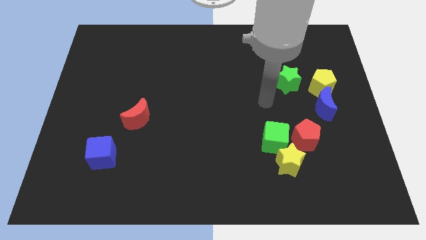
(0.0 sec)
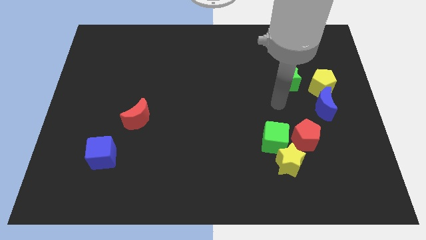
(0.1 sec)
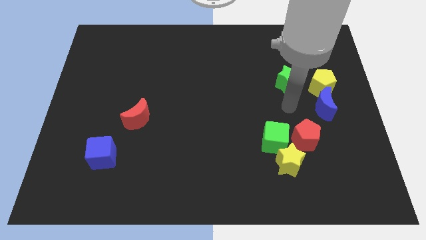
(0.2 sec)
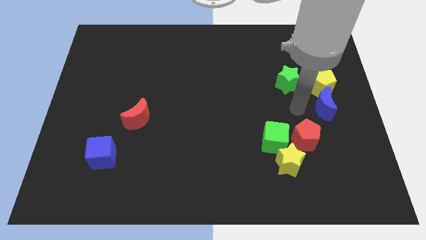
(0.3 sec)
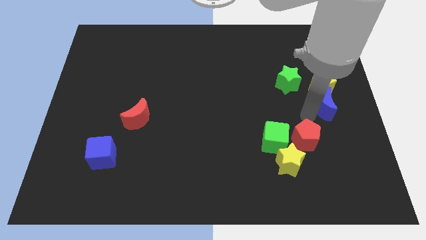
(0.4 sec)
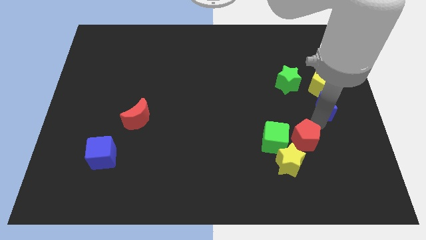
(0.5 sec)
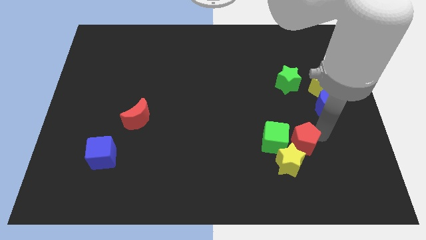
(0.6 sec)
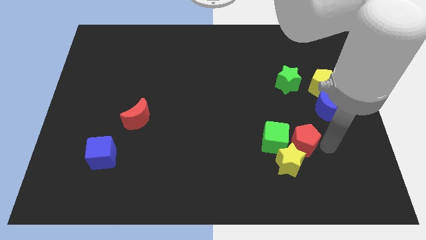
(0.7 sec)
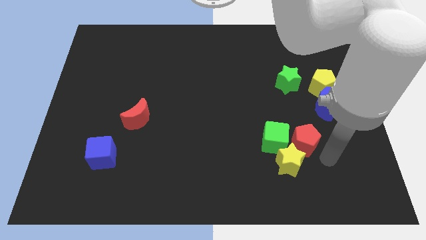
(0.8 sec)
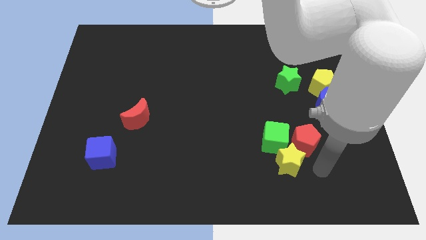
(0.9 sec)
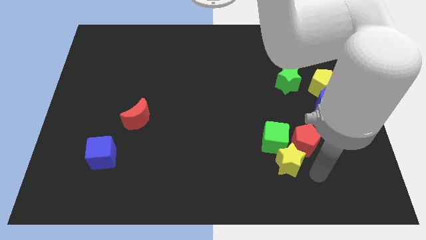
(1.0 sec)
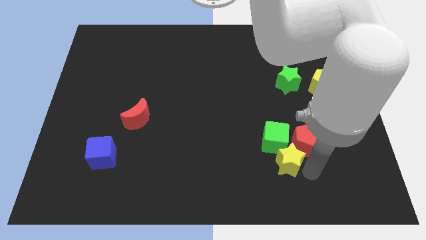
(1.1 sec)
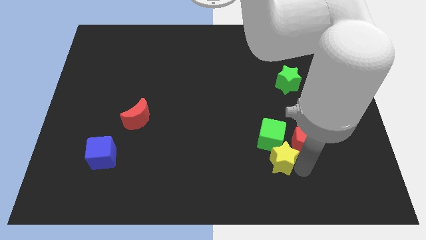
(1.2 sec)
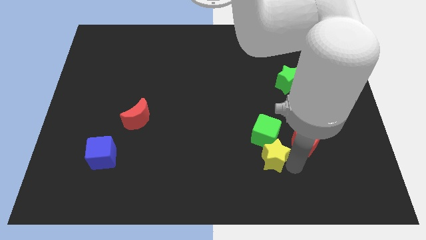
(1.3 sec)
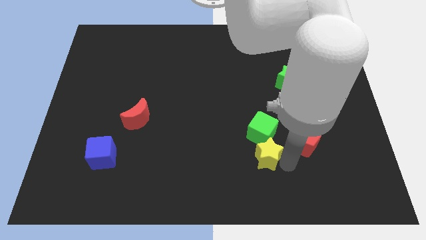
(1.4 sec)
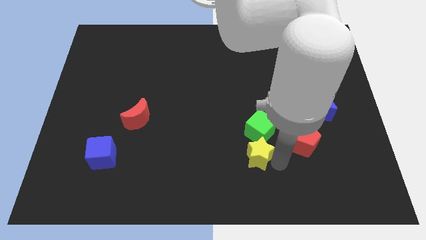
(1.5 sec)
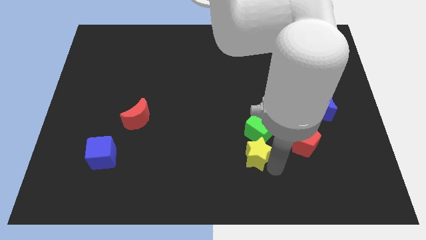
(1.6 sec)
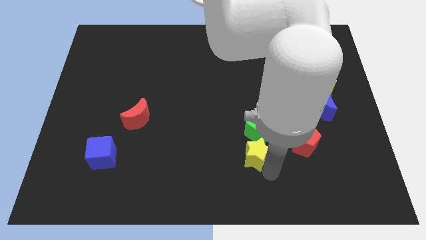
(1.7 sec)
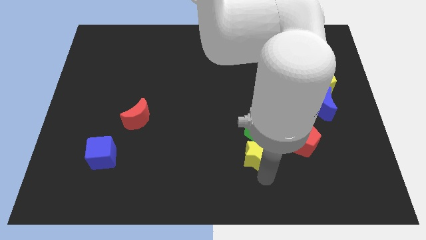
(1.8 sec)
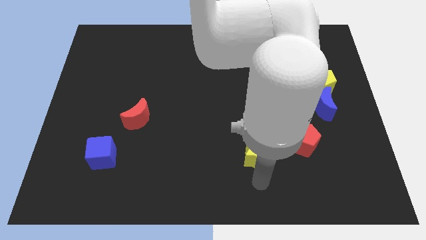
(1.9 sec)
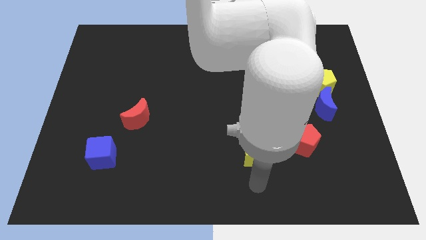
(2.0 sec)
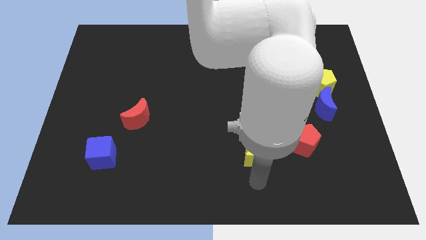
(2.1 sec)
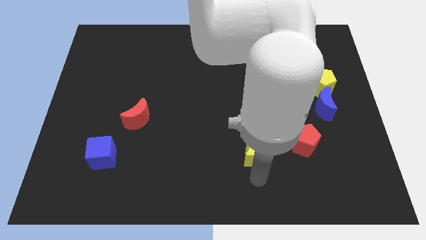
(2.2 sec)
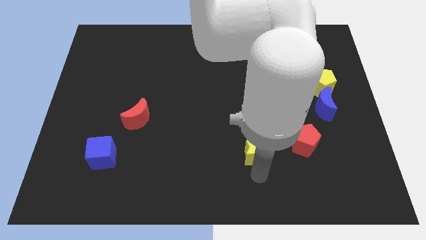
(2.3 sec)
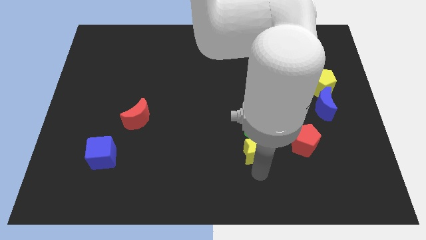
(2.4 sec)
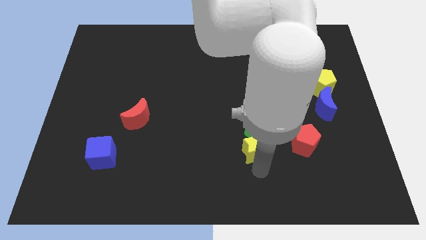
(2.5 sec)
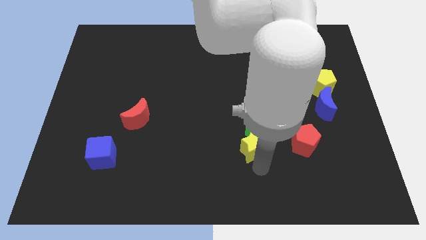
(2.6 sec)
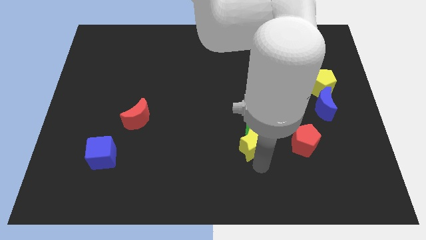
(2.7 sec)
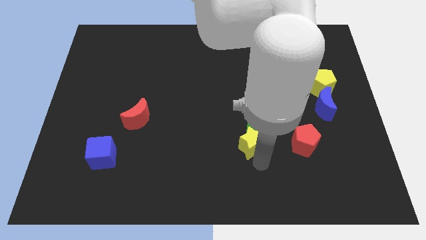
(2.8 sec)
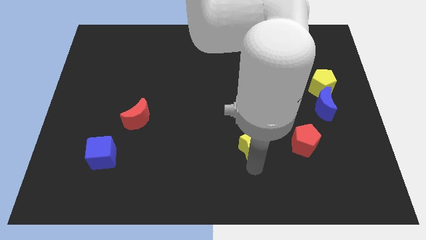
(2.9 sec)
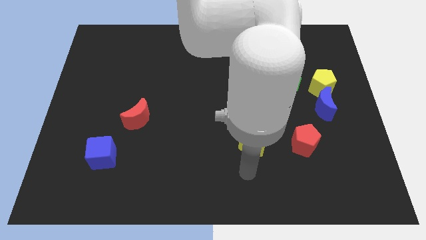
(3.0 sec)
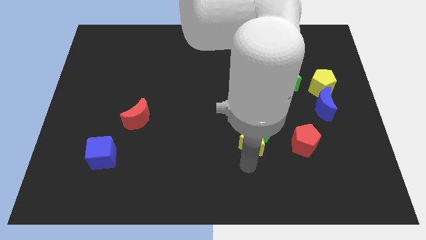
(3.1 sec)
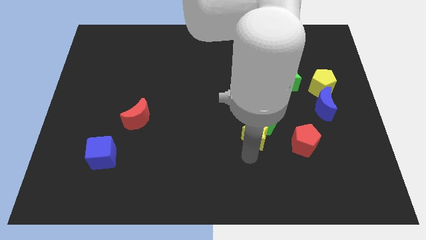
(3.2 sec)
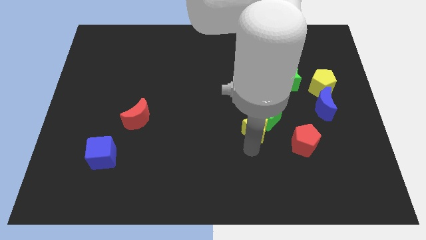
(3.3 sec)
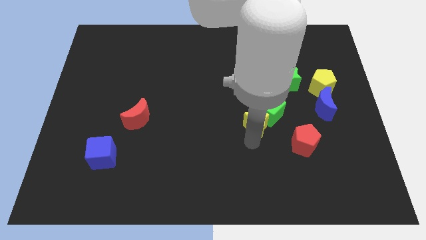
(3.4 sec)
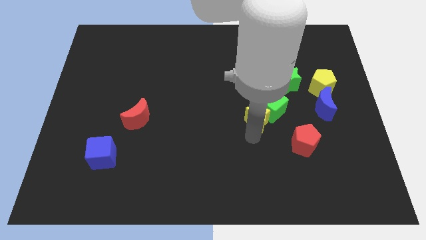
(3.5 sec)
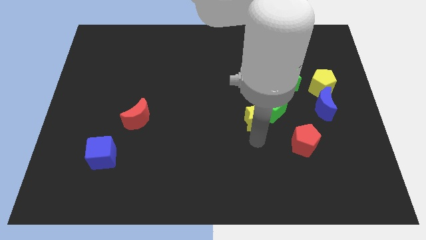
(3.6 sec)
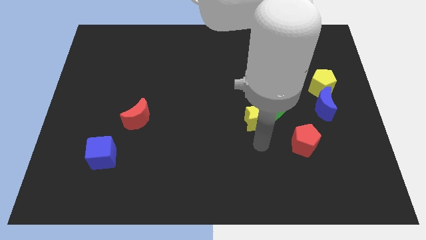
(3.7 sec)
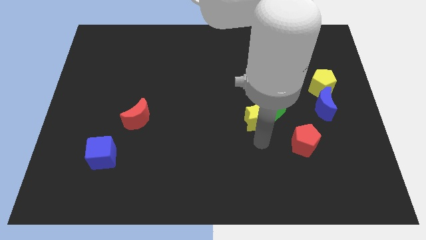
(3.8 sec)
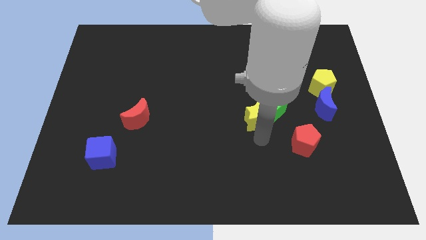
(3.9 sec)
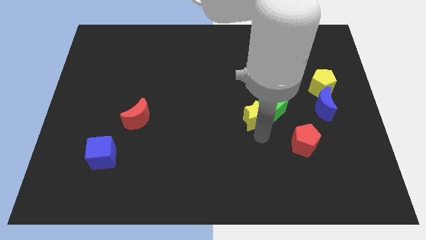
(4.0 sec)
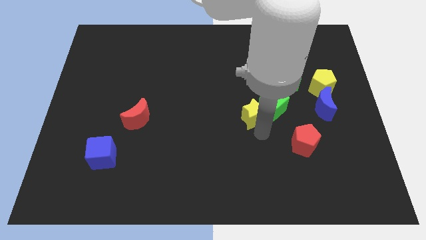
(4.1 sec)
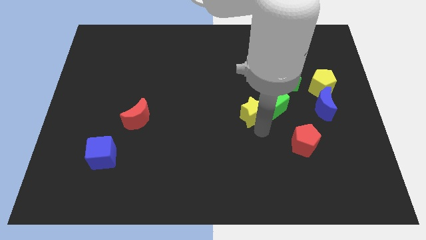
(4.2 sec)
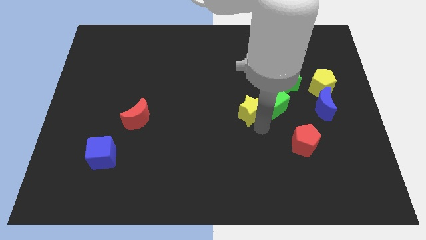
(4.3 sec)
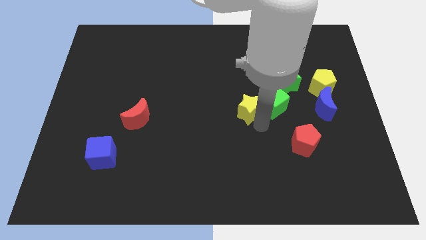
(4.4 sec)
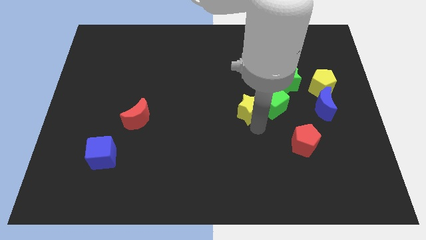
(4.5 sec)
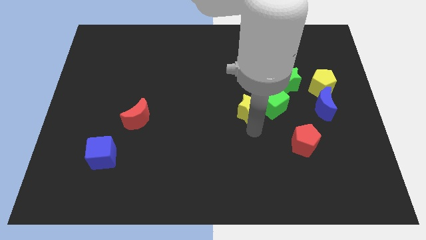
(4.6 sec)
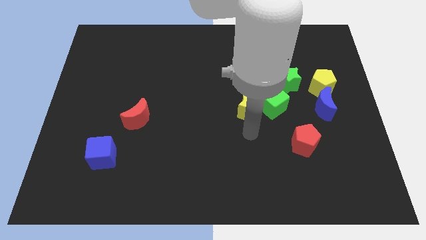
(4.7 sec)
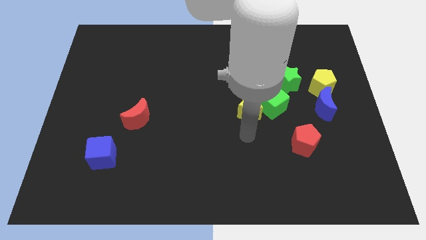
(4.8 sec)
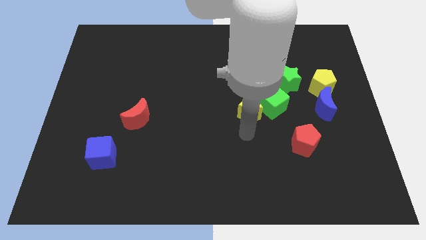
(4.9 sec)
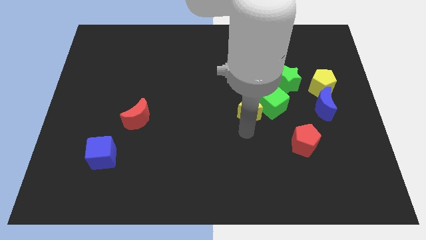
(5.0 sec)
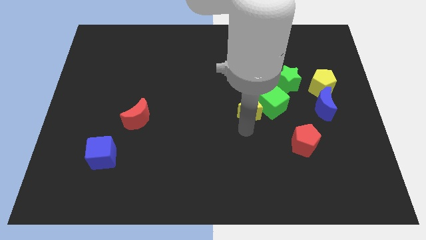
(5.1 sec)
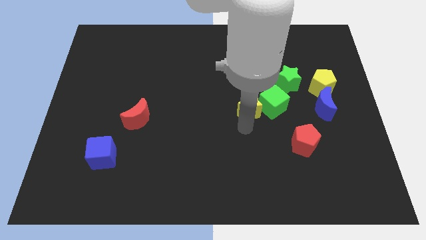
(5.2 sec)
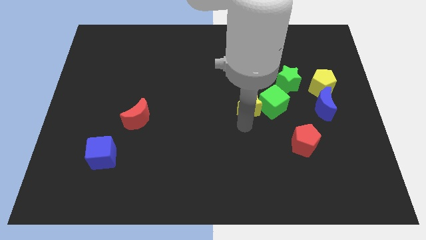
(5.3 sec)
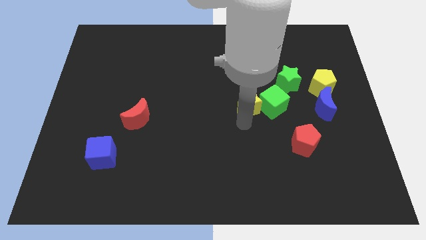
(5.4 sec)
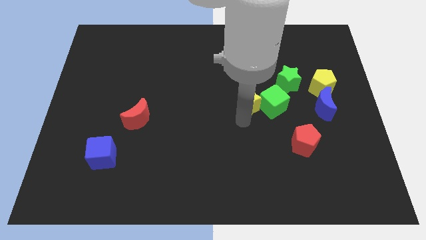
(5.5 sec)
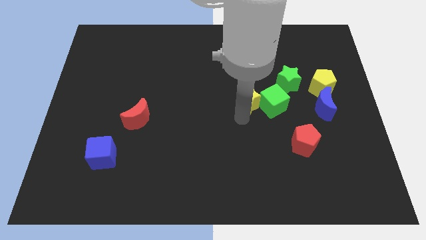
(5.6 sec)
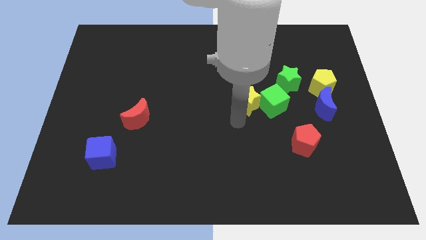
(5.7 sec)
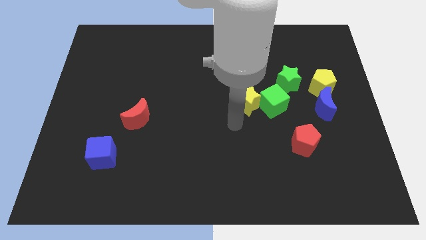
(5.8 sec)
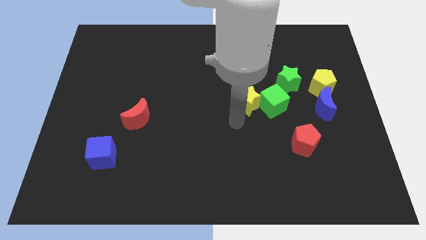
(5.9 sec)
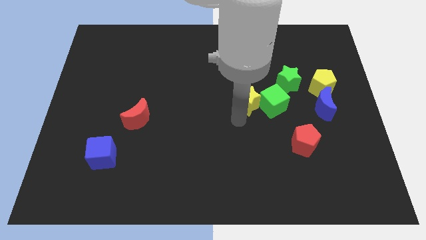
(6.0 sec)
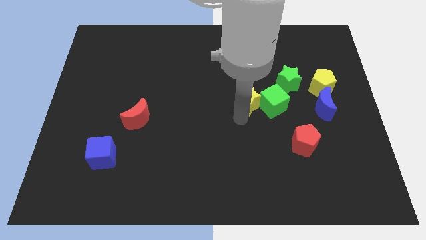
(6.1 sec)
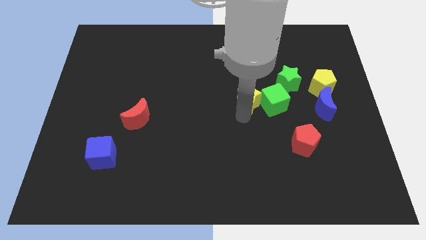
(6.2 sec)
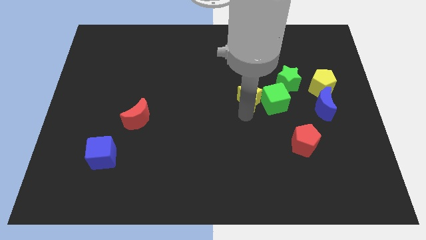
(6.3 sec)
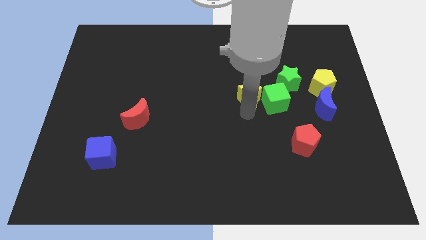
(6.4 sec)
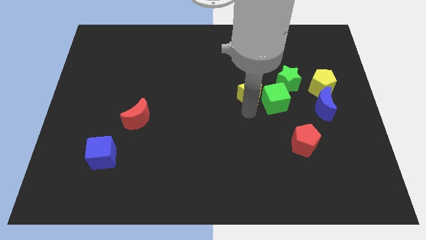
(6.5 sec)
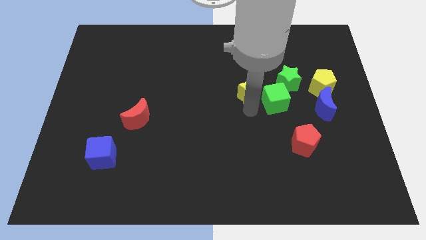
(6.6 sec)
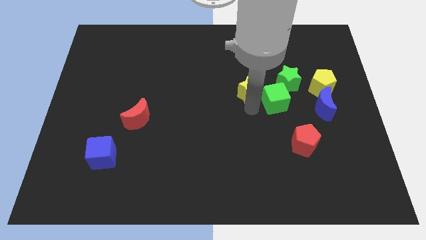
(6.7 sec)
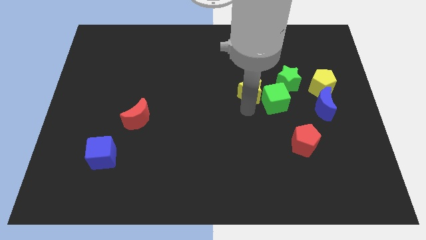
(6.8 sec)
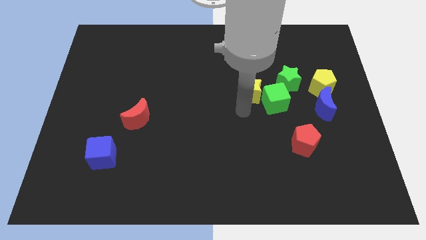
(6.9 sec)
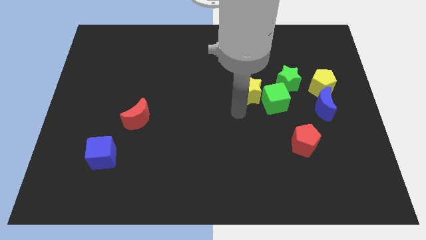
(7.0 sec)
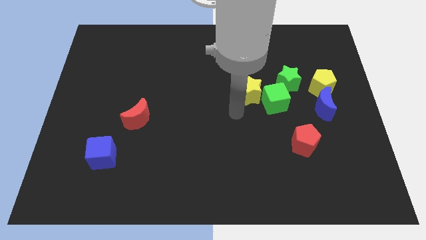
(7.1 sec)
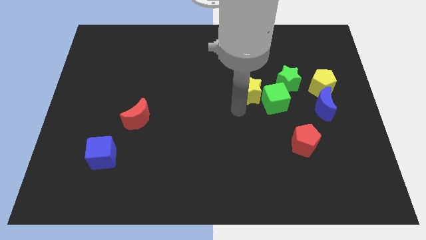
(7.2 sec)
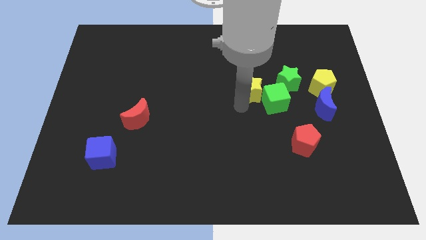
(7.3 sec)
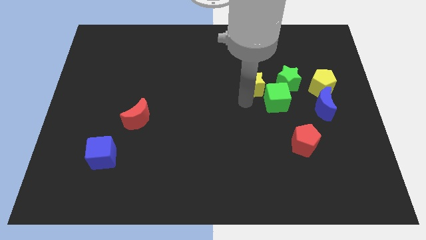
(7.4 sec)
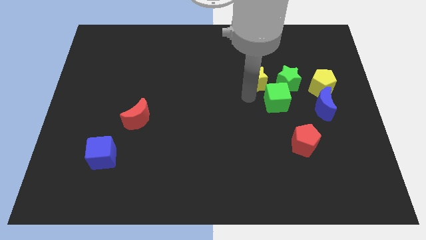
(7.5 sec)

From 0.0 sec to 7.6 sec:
push the yellow star up

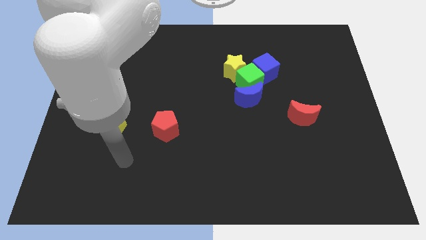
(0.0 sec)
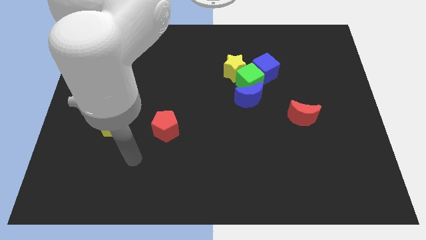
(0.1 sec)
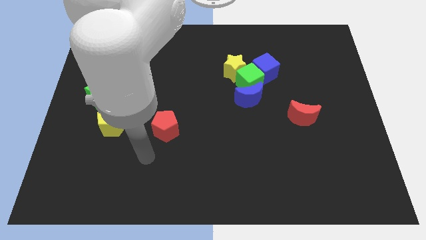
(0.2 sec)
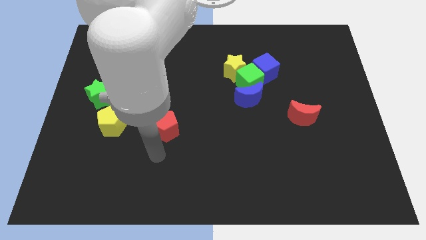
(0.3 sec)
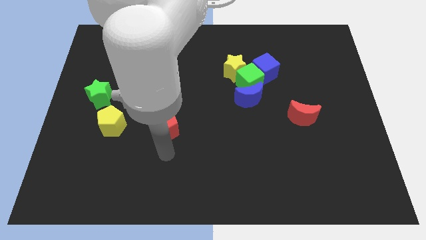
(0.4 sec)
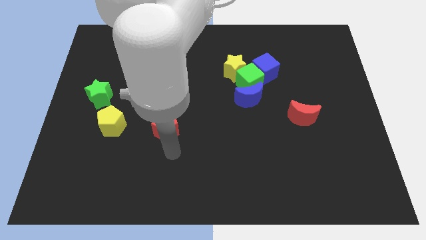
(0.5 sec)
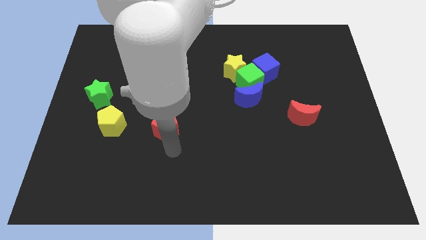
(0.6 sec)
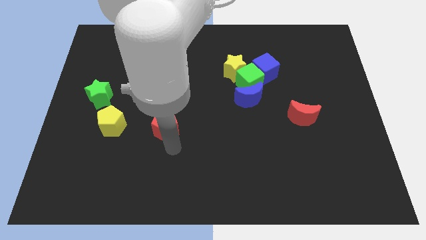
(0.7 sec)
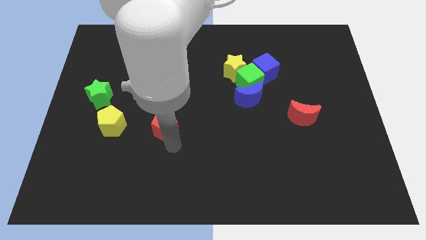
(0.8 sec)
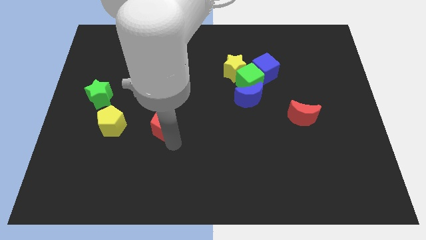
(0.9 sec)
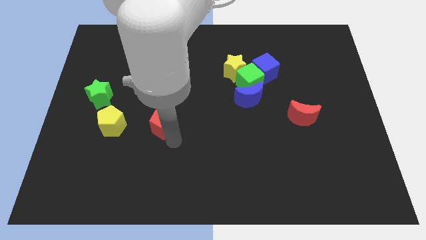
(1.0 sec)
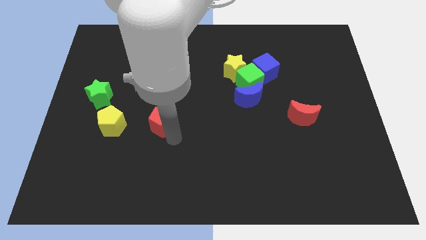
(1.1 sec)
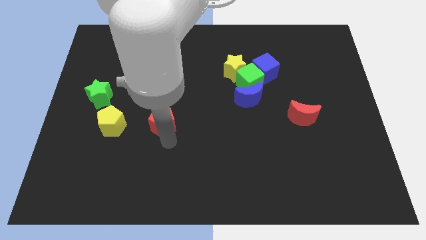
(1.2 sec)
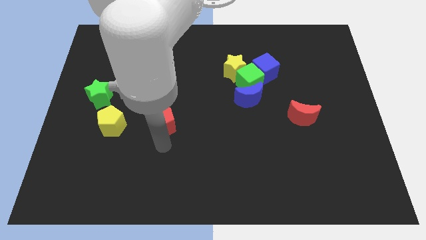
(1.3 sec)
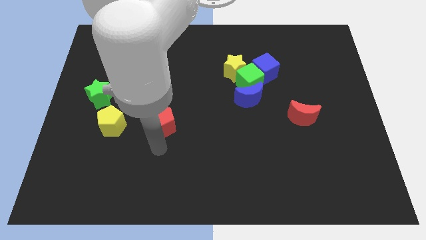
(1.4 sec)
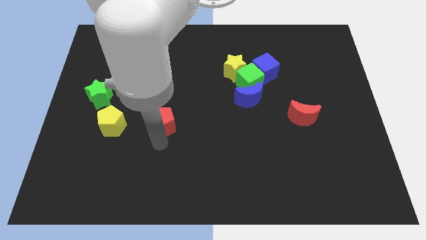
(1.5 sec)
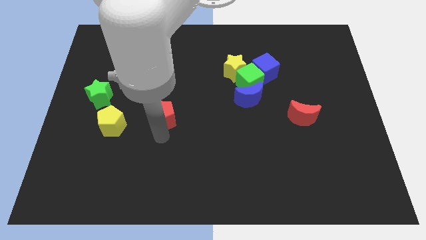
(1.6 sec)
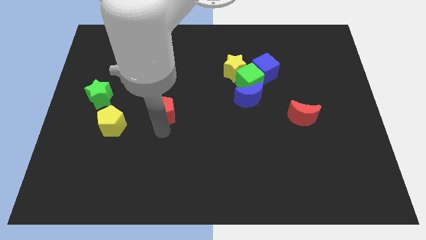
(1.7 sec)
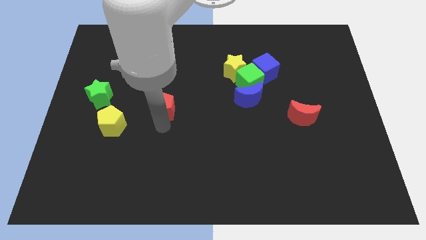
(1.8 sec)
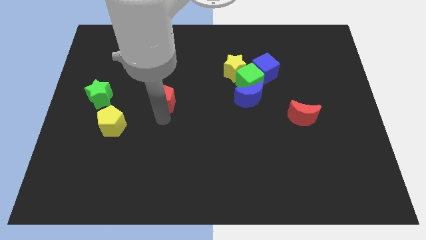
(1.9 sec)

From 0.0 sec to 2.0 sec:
slightly push the red pentagon up
